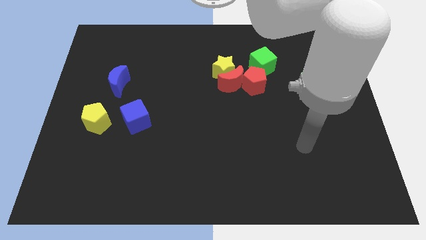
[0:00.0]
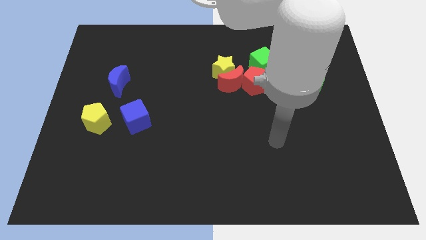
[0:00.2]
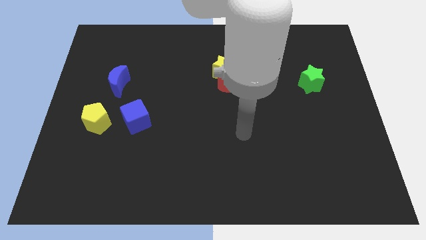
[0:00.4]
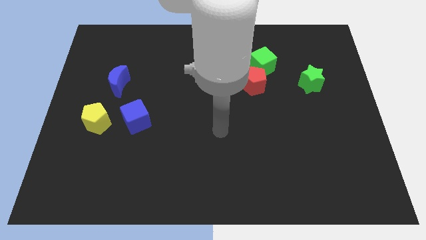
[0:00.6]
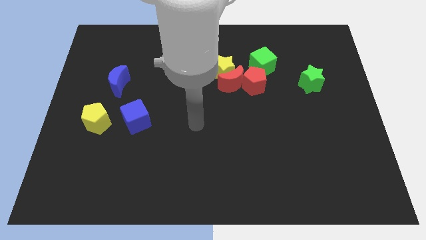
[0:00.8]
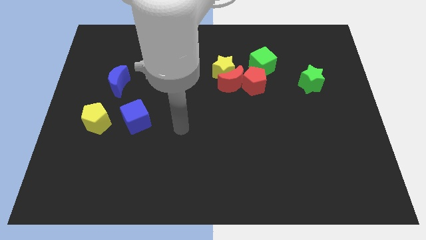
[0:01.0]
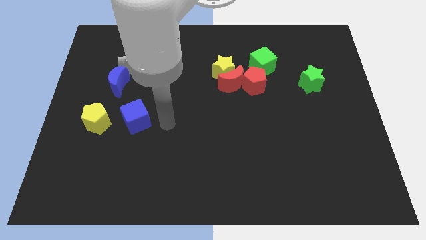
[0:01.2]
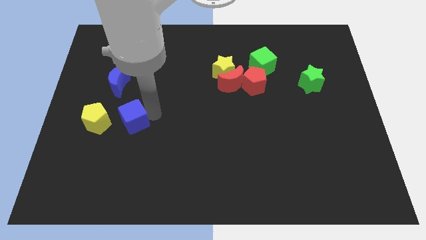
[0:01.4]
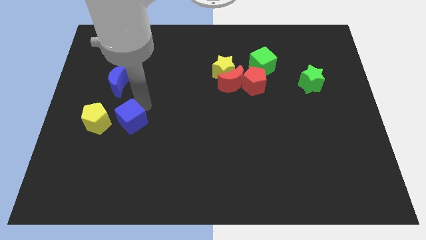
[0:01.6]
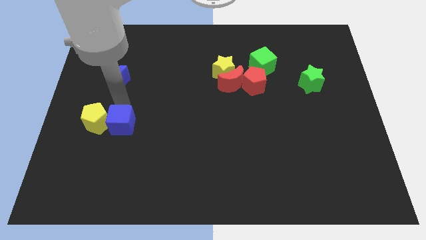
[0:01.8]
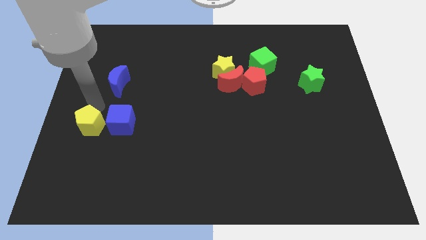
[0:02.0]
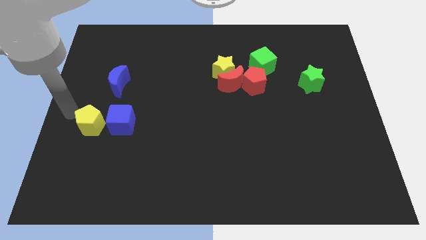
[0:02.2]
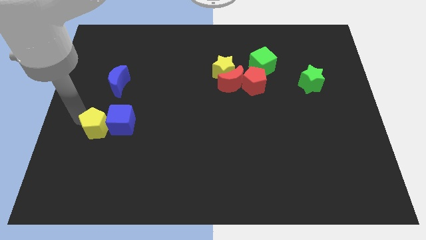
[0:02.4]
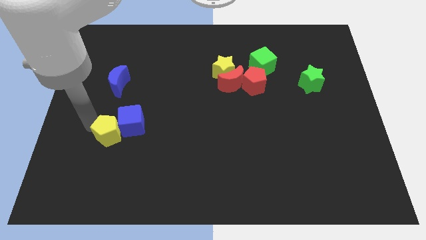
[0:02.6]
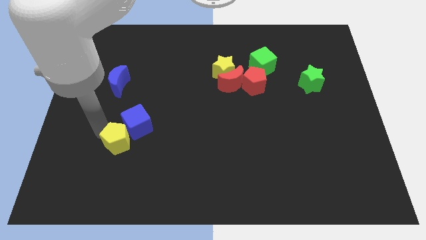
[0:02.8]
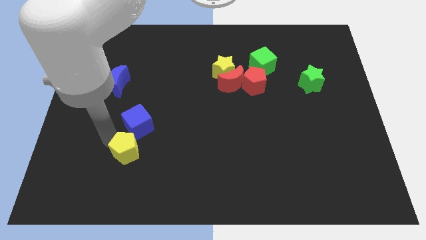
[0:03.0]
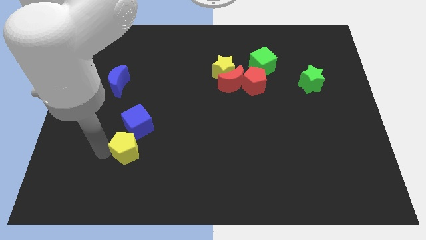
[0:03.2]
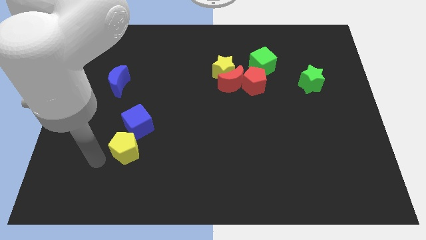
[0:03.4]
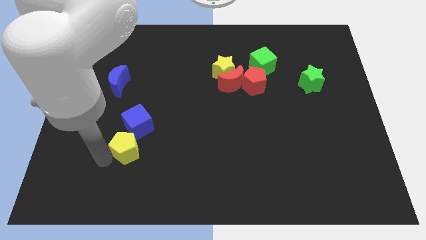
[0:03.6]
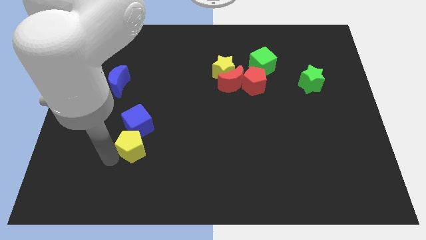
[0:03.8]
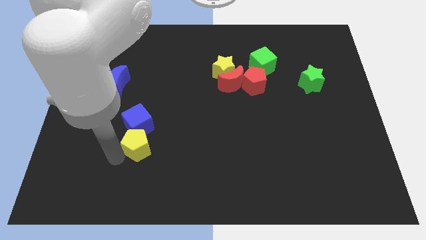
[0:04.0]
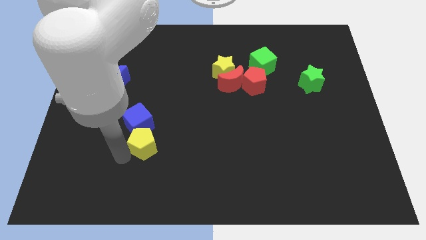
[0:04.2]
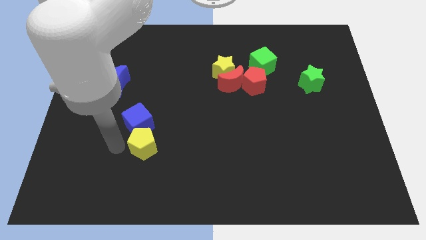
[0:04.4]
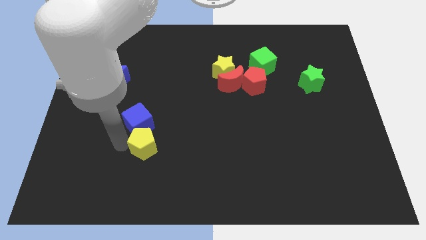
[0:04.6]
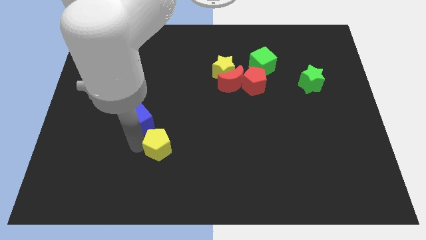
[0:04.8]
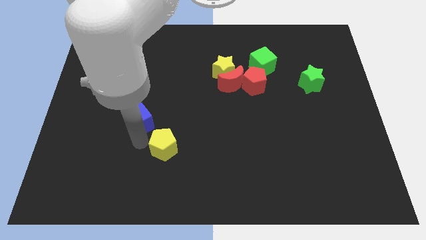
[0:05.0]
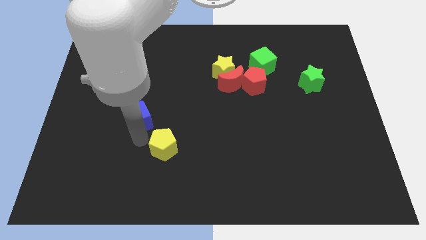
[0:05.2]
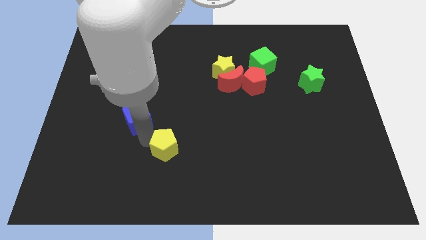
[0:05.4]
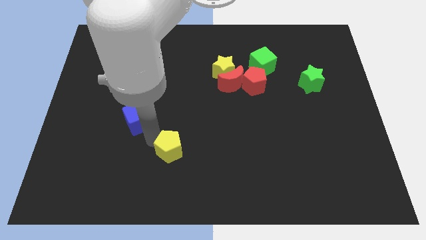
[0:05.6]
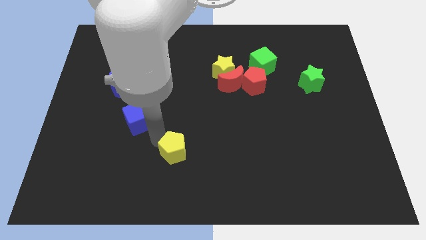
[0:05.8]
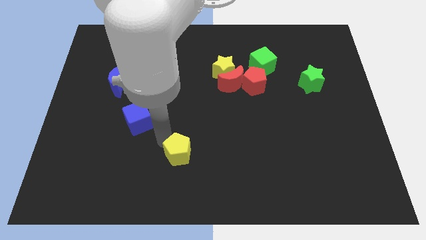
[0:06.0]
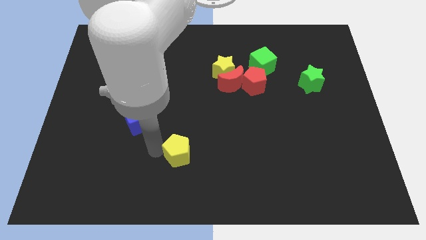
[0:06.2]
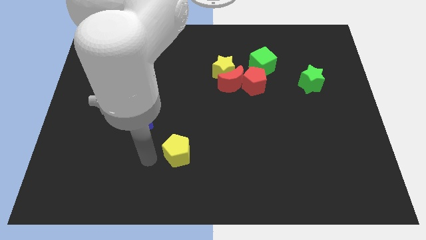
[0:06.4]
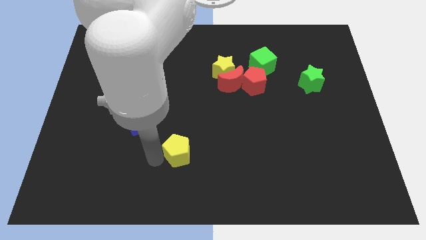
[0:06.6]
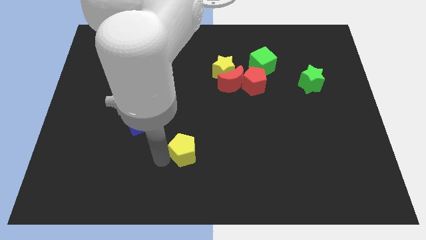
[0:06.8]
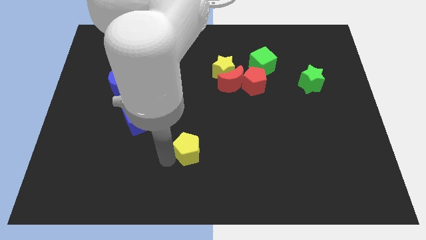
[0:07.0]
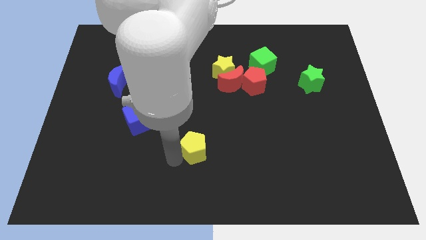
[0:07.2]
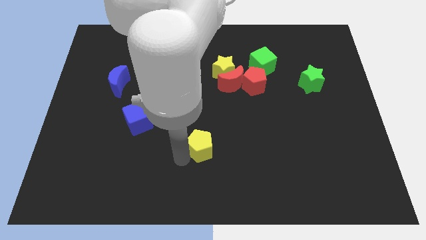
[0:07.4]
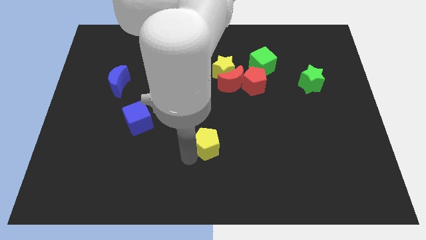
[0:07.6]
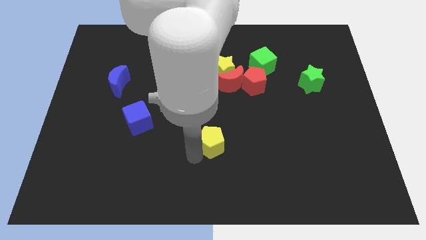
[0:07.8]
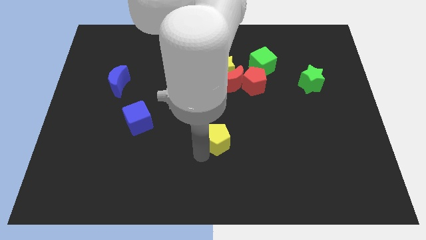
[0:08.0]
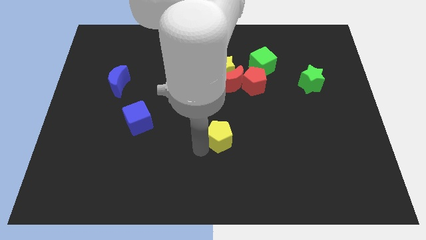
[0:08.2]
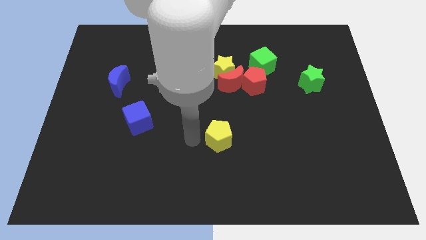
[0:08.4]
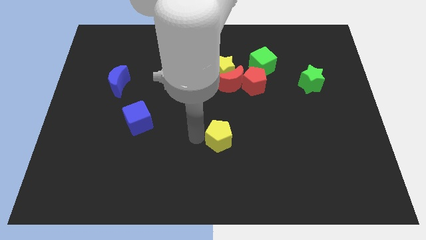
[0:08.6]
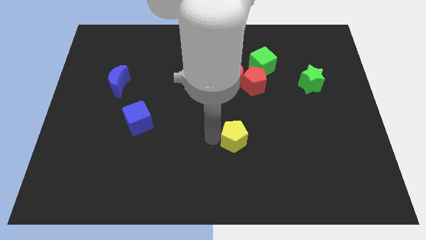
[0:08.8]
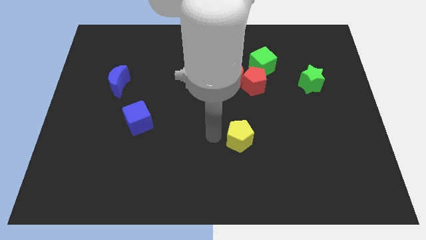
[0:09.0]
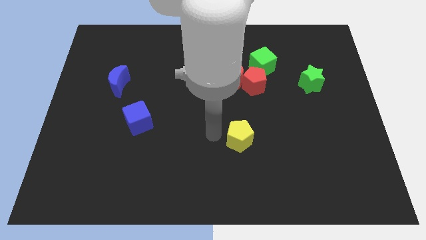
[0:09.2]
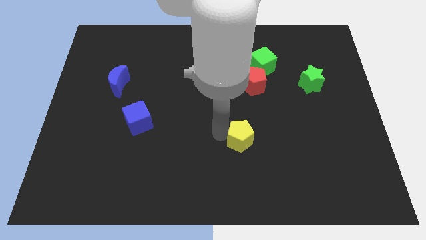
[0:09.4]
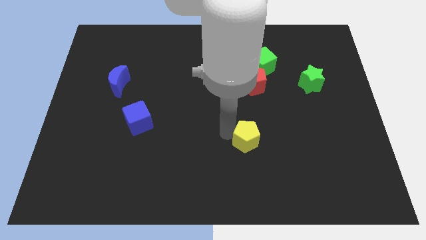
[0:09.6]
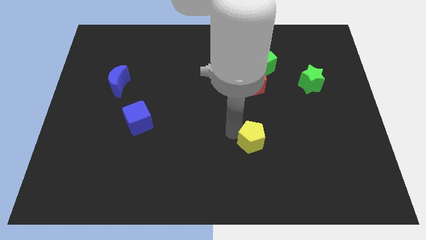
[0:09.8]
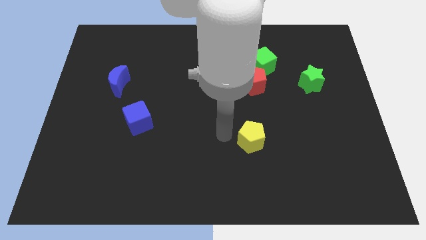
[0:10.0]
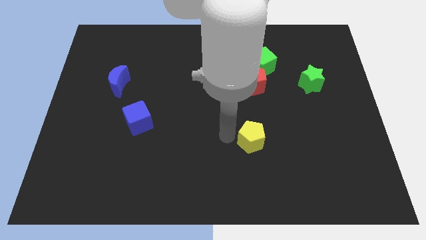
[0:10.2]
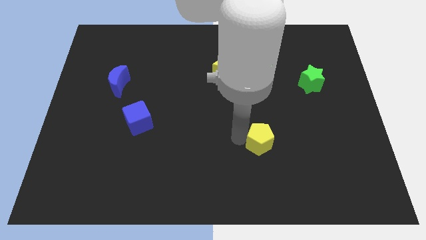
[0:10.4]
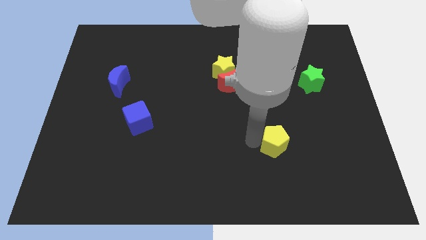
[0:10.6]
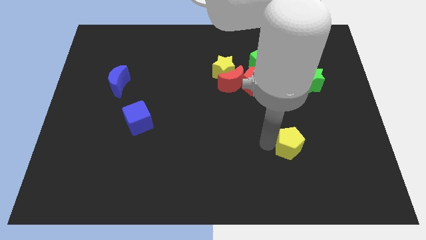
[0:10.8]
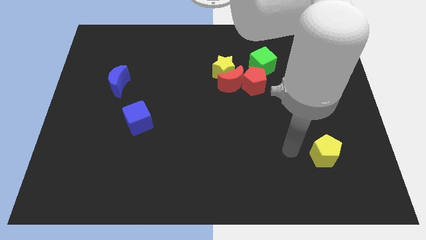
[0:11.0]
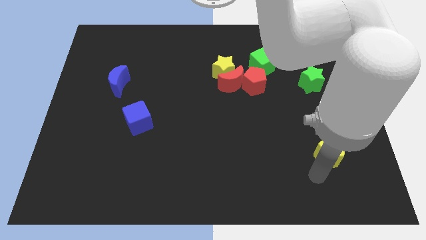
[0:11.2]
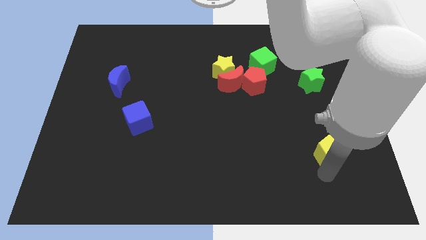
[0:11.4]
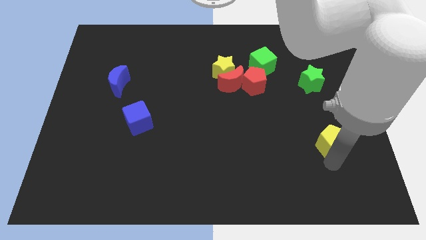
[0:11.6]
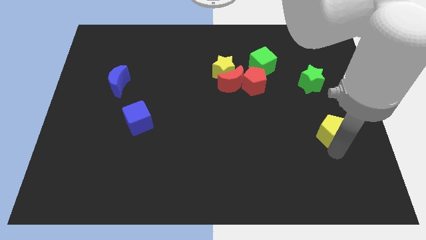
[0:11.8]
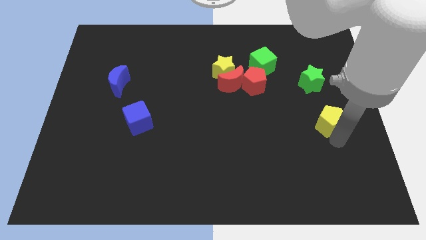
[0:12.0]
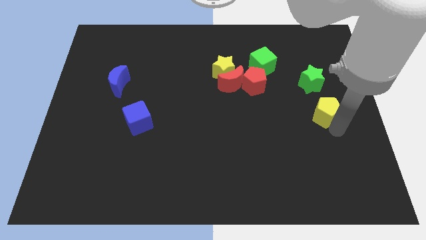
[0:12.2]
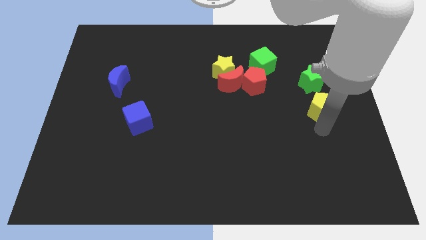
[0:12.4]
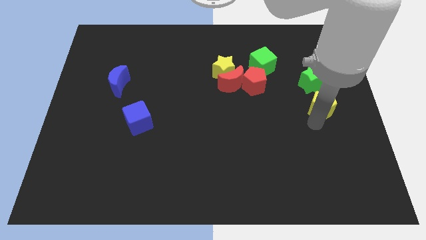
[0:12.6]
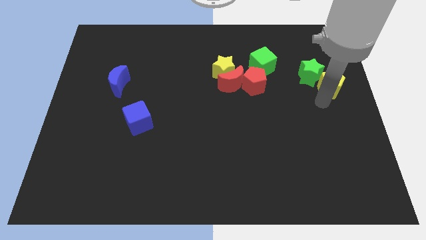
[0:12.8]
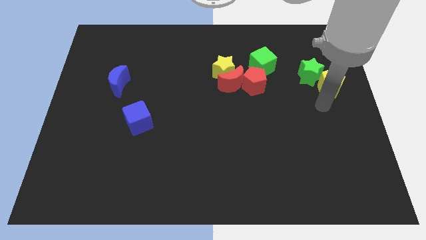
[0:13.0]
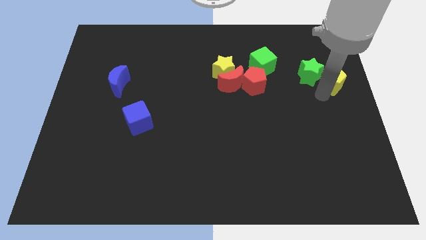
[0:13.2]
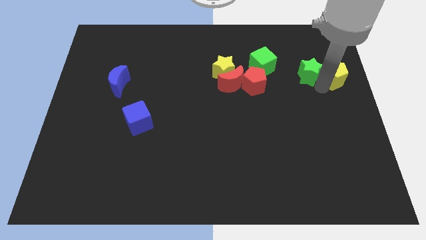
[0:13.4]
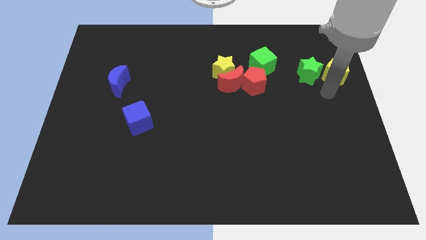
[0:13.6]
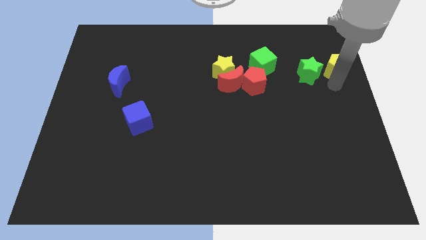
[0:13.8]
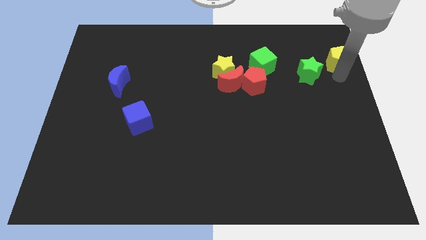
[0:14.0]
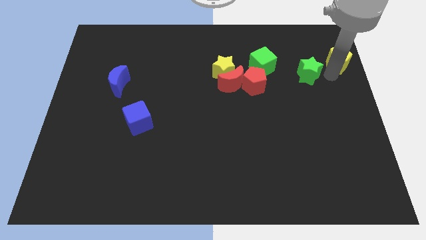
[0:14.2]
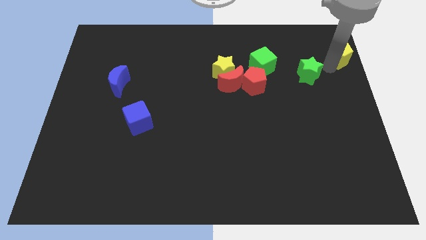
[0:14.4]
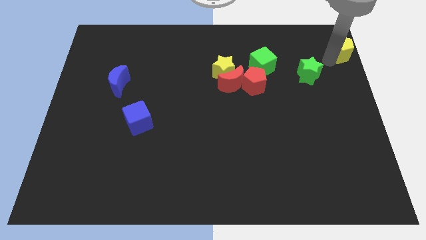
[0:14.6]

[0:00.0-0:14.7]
put the yellow pentagon to the top right corner
